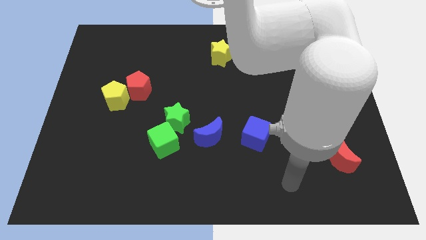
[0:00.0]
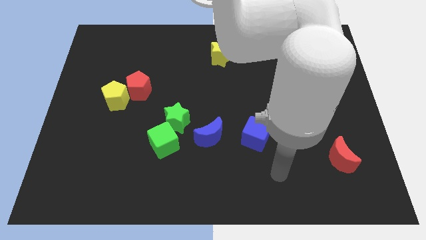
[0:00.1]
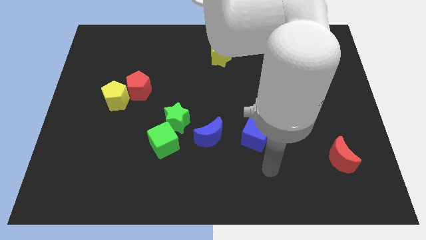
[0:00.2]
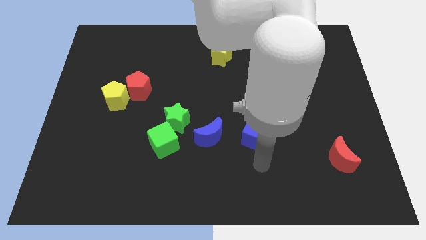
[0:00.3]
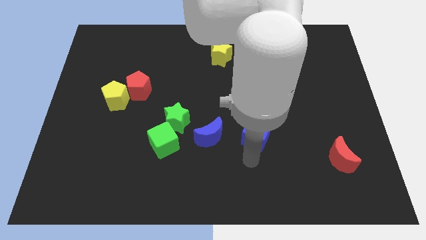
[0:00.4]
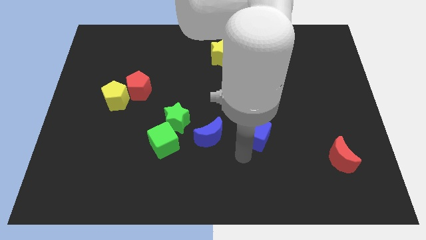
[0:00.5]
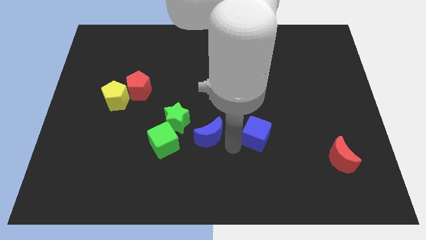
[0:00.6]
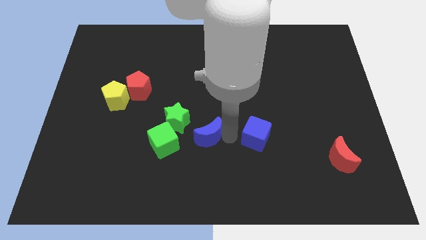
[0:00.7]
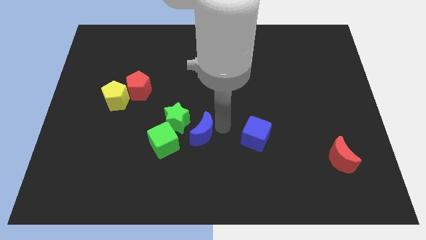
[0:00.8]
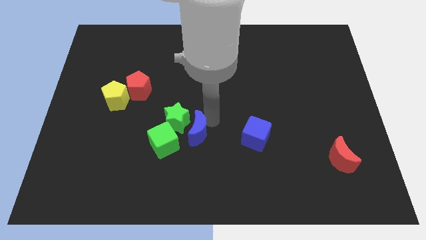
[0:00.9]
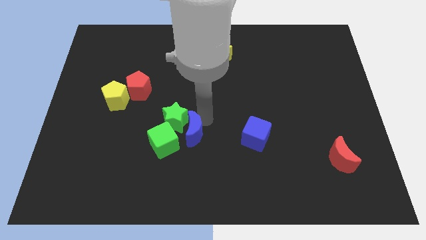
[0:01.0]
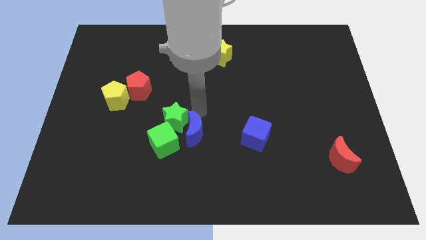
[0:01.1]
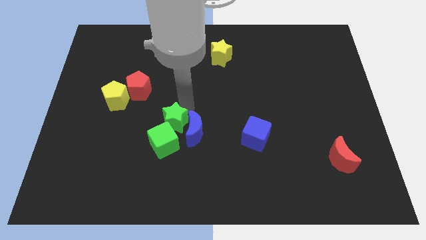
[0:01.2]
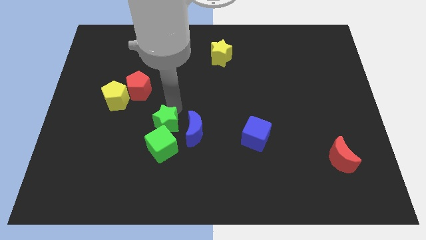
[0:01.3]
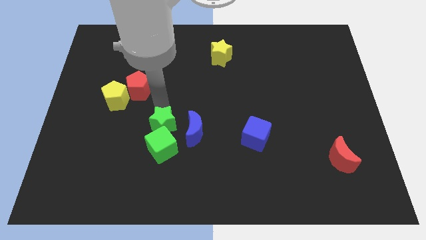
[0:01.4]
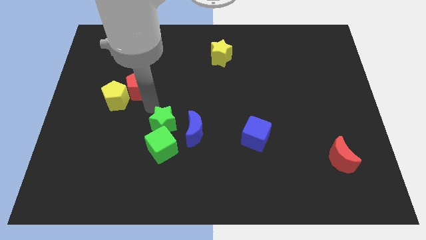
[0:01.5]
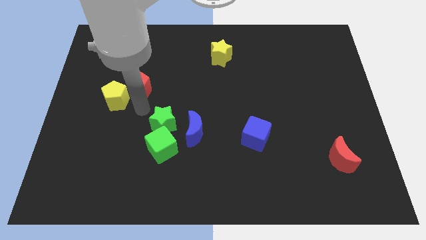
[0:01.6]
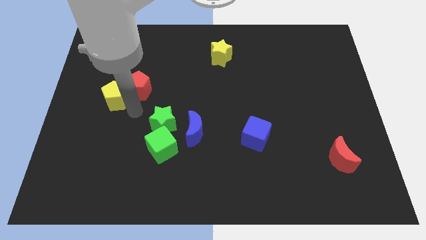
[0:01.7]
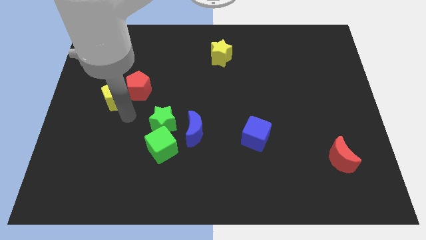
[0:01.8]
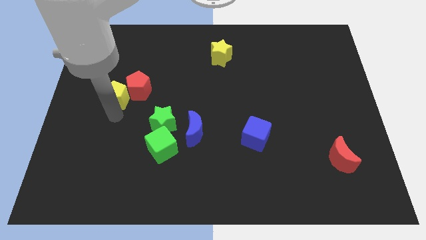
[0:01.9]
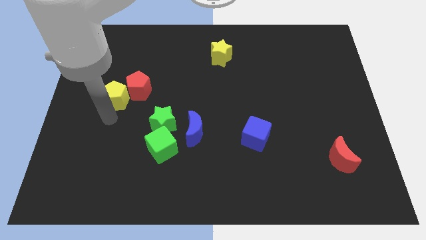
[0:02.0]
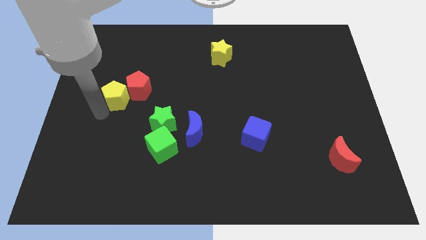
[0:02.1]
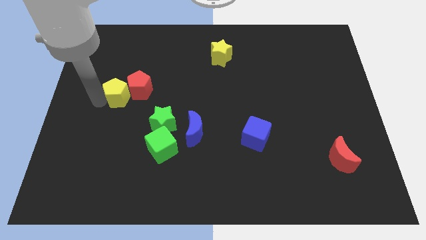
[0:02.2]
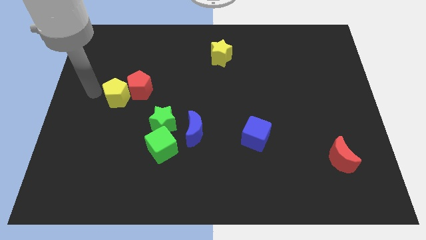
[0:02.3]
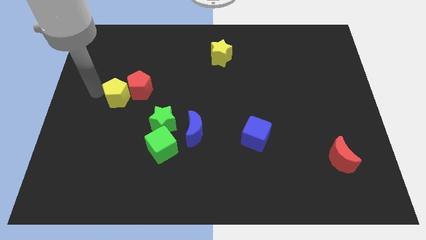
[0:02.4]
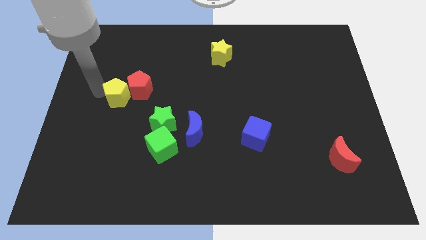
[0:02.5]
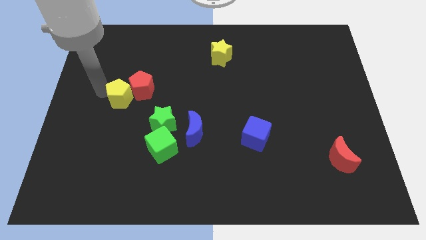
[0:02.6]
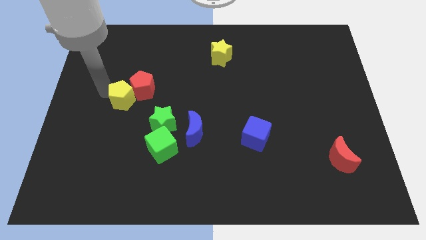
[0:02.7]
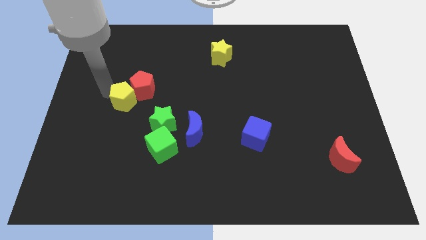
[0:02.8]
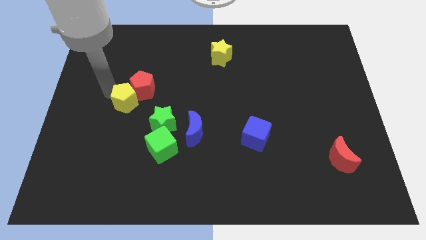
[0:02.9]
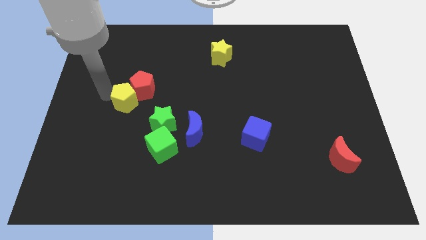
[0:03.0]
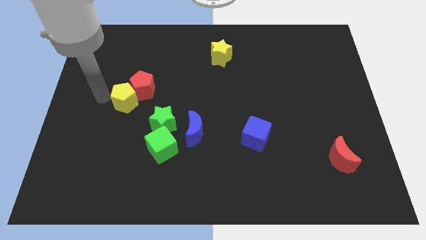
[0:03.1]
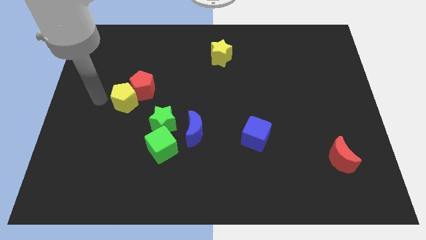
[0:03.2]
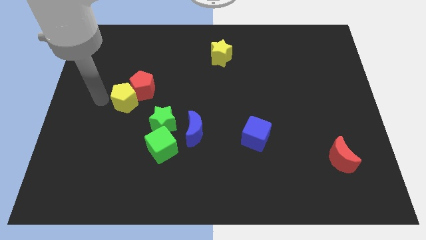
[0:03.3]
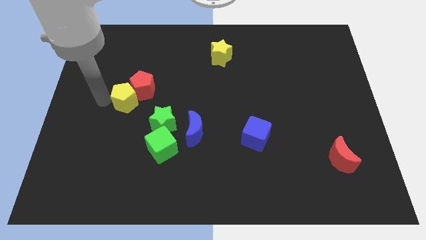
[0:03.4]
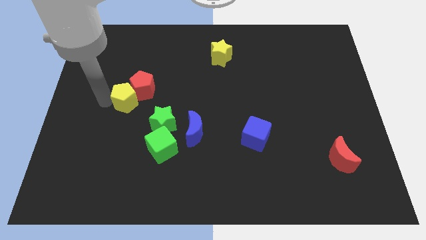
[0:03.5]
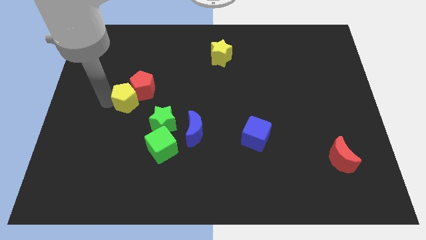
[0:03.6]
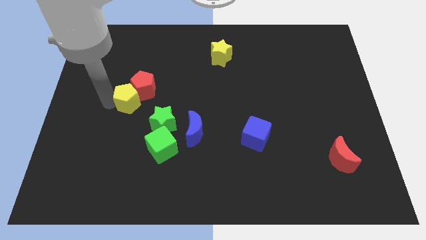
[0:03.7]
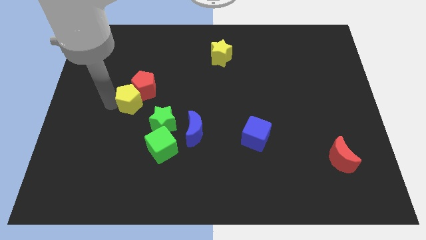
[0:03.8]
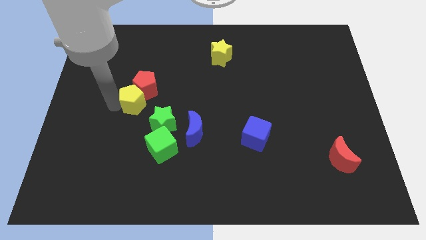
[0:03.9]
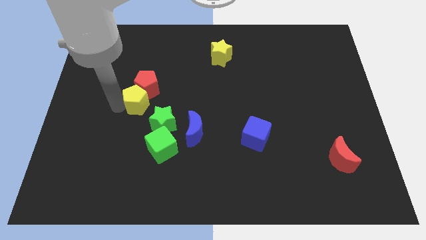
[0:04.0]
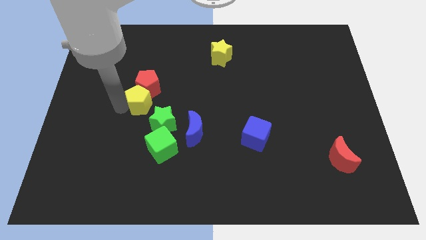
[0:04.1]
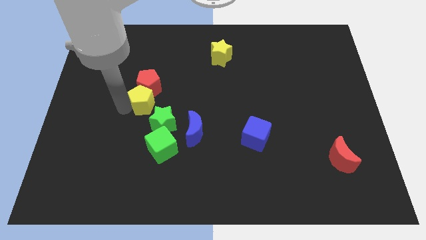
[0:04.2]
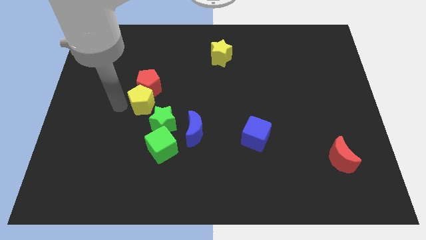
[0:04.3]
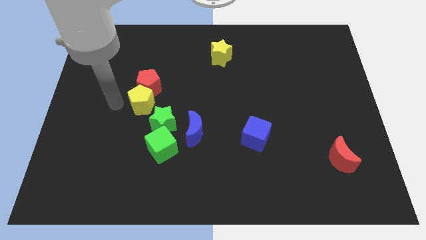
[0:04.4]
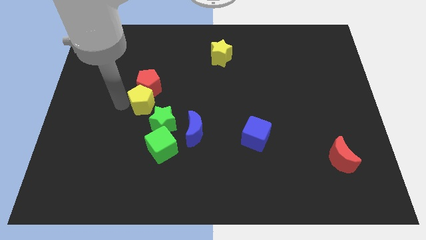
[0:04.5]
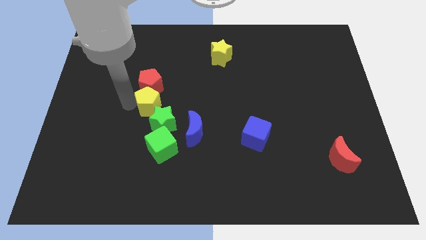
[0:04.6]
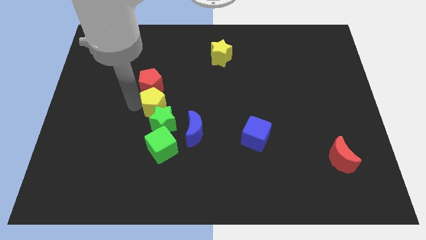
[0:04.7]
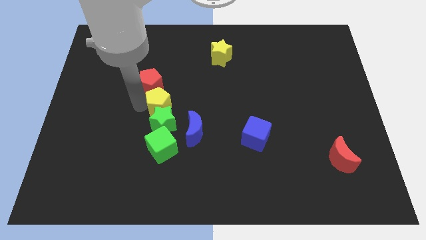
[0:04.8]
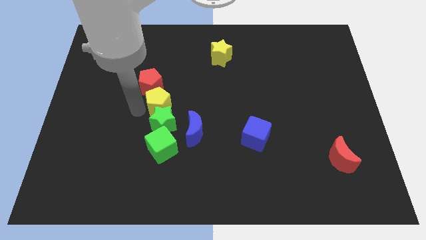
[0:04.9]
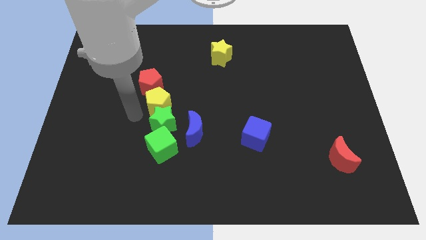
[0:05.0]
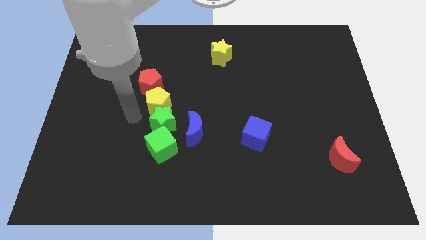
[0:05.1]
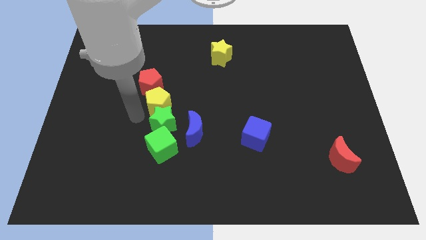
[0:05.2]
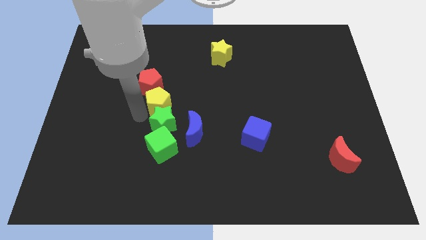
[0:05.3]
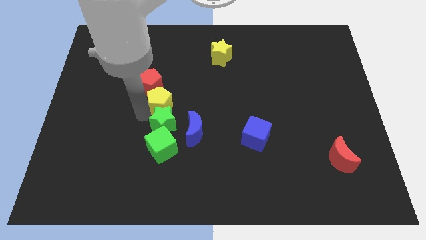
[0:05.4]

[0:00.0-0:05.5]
put the yellow pentagon to the center
